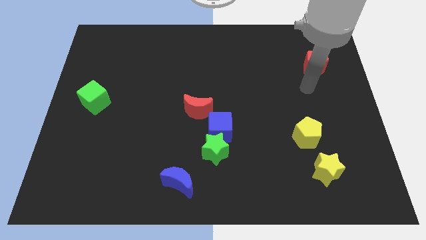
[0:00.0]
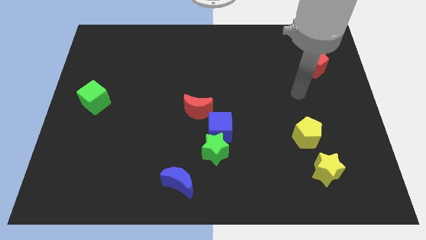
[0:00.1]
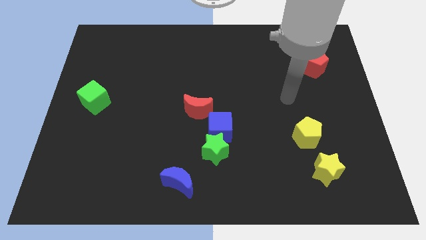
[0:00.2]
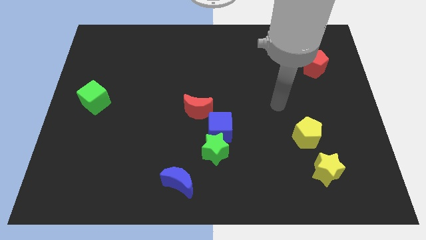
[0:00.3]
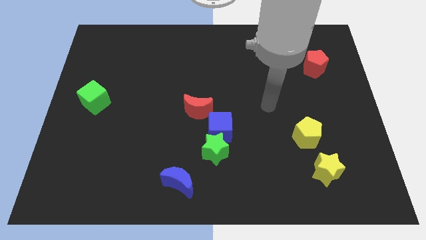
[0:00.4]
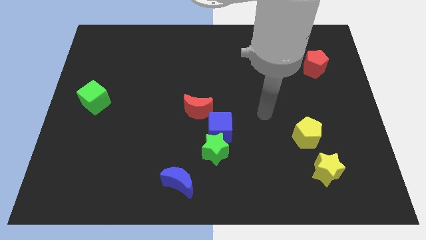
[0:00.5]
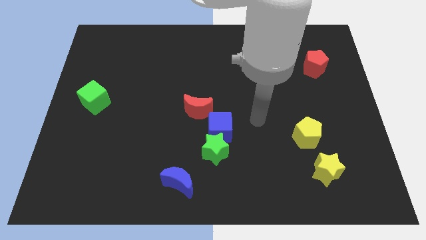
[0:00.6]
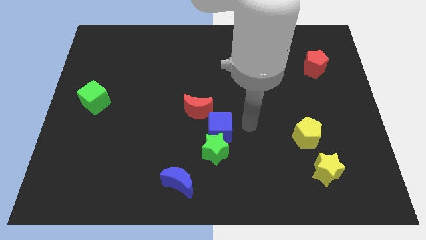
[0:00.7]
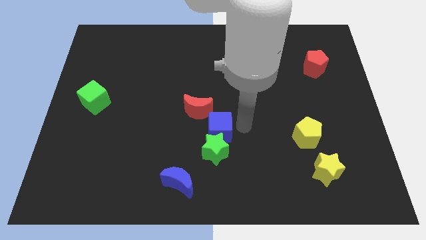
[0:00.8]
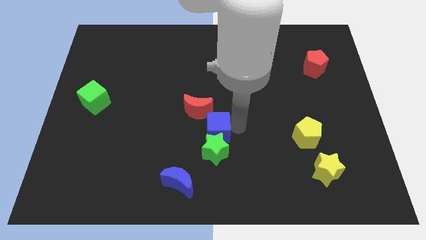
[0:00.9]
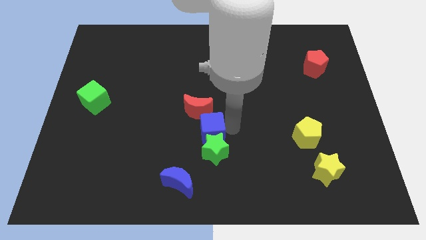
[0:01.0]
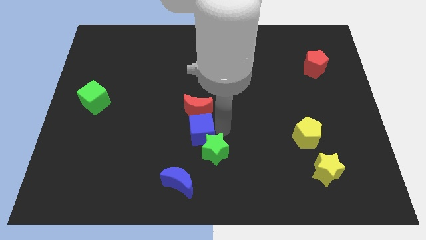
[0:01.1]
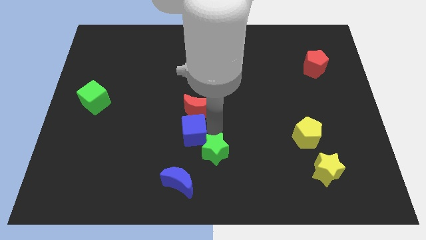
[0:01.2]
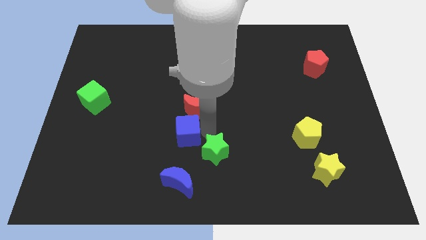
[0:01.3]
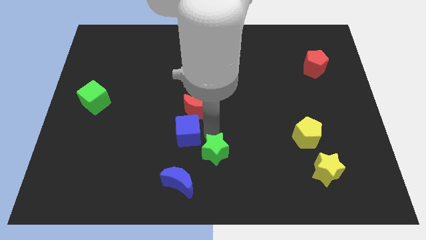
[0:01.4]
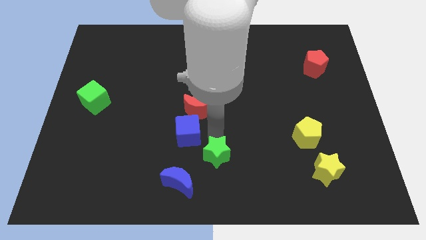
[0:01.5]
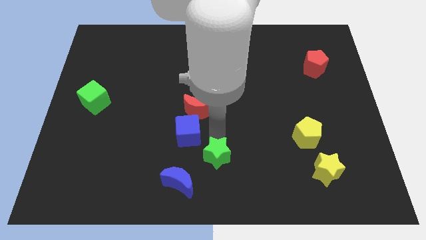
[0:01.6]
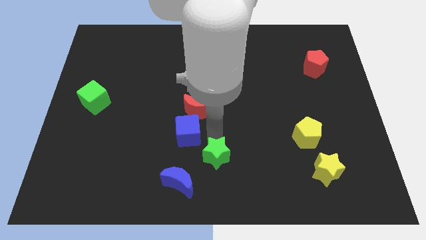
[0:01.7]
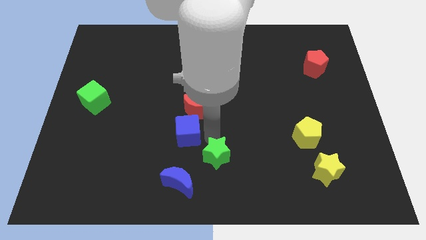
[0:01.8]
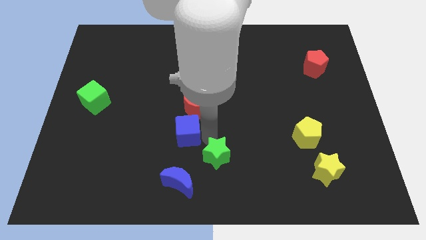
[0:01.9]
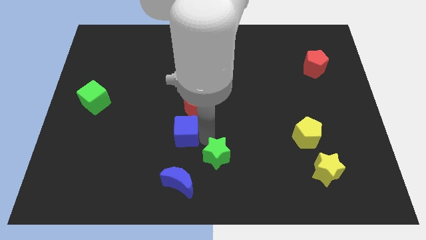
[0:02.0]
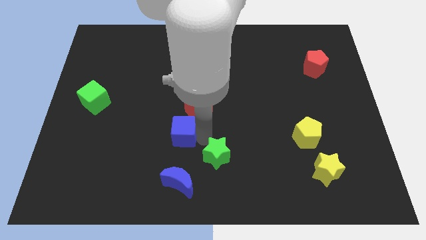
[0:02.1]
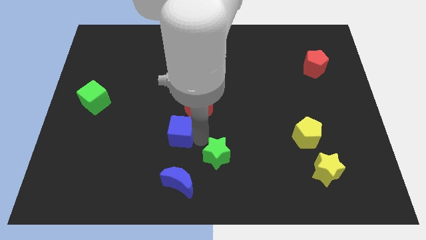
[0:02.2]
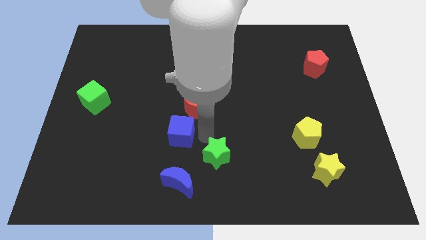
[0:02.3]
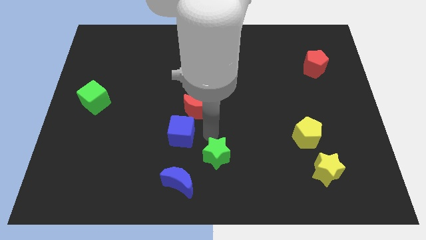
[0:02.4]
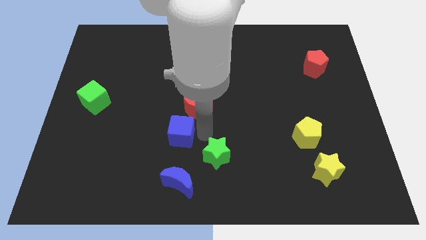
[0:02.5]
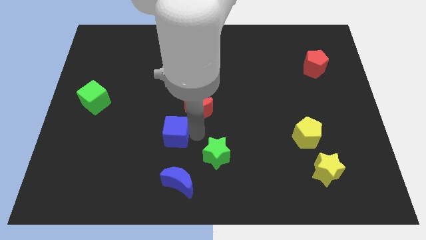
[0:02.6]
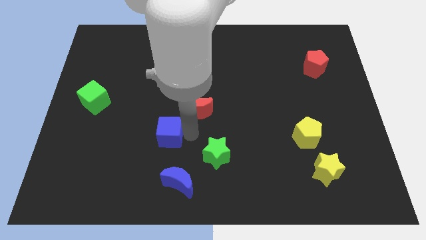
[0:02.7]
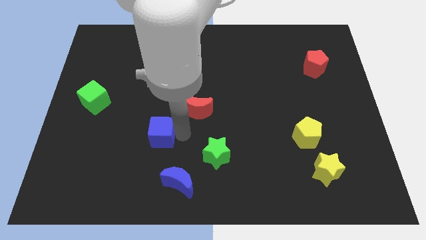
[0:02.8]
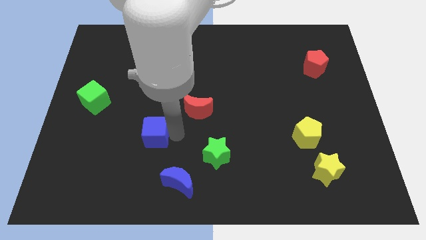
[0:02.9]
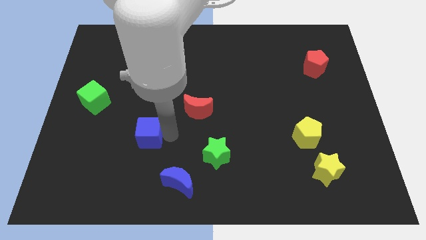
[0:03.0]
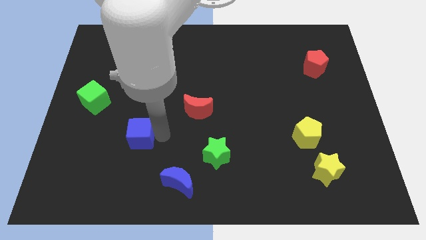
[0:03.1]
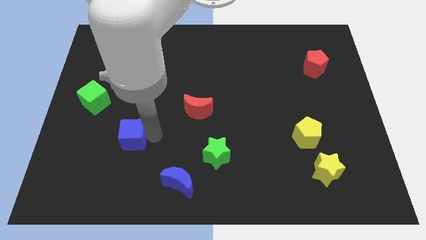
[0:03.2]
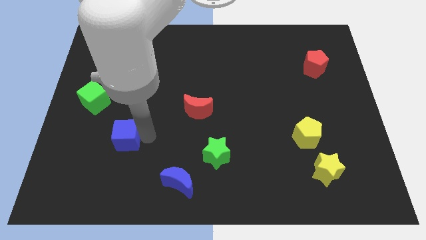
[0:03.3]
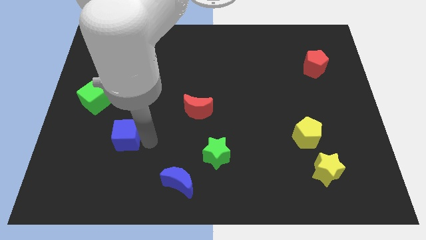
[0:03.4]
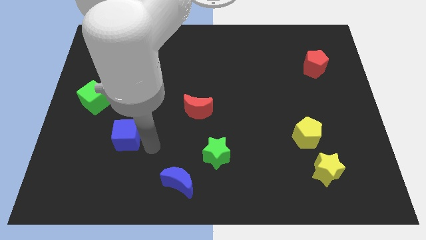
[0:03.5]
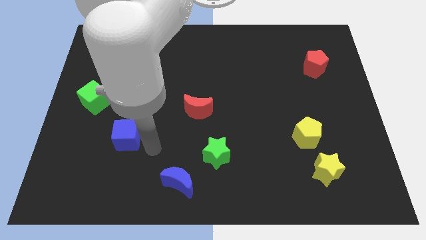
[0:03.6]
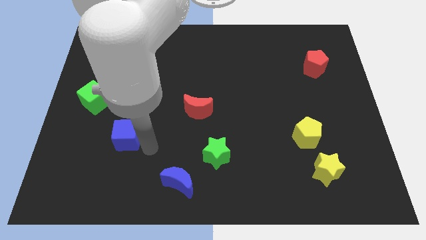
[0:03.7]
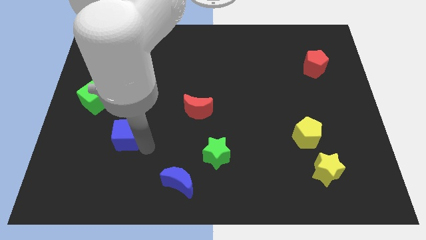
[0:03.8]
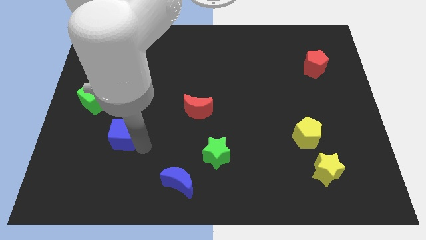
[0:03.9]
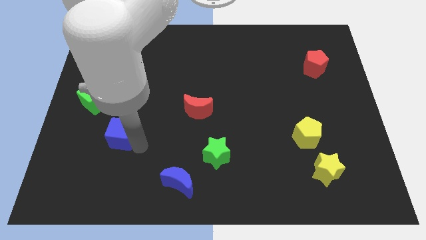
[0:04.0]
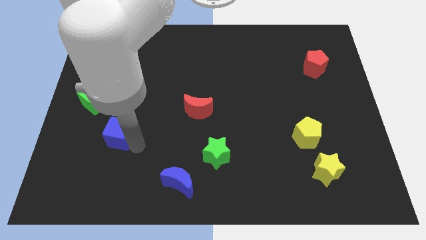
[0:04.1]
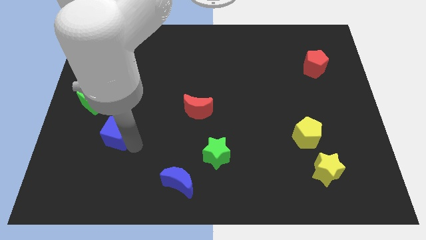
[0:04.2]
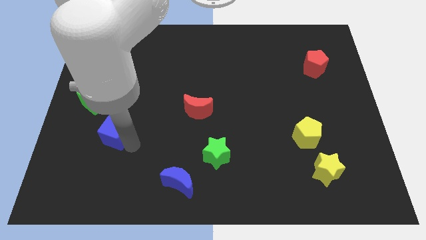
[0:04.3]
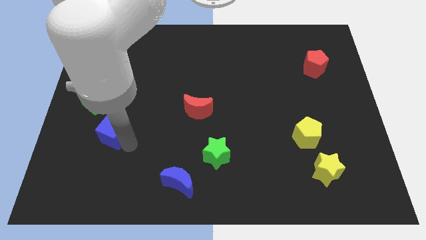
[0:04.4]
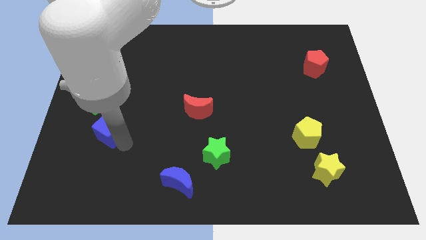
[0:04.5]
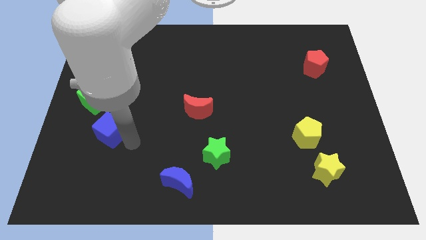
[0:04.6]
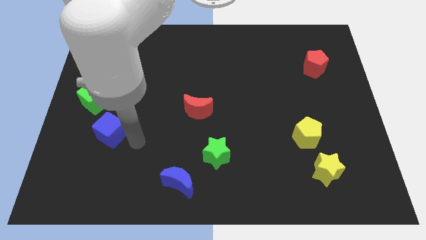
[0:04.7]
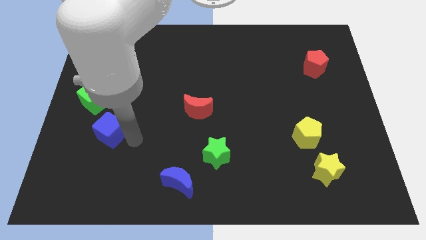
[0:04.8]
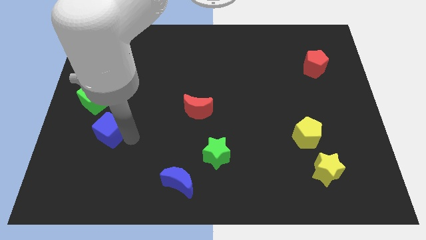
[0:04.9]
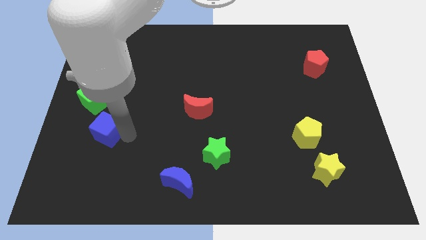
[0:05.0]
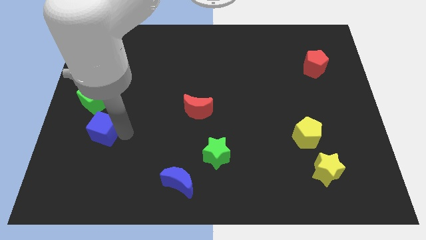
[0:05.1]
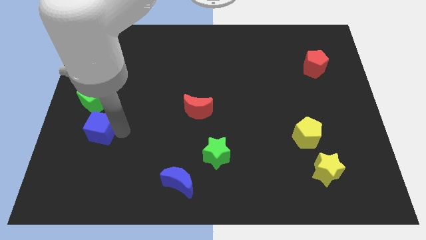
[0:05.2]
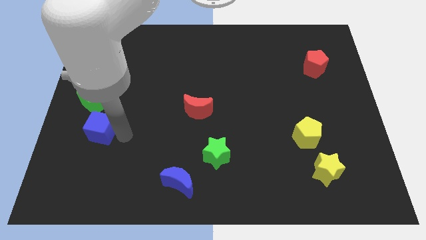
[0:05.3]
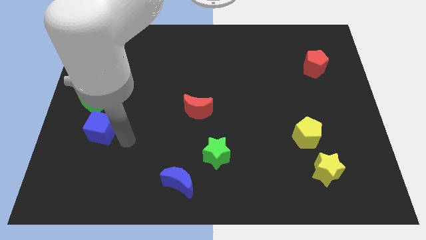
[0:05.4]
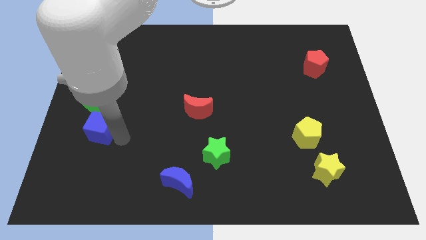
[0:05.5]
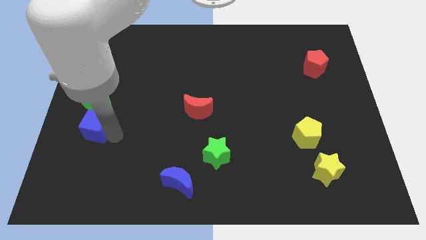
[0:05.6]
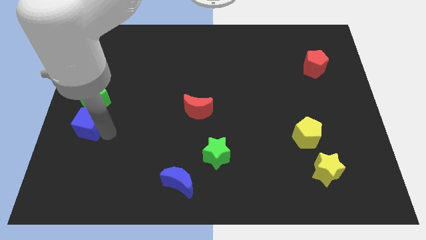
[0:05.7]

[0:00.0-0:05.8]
push the blue cube to the left side of the board
